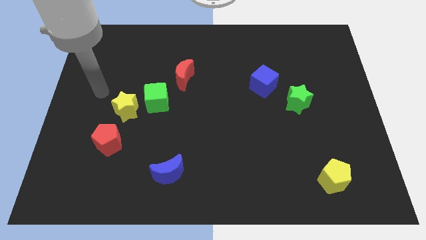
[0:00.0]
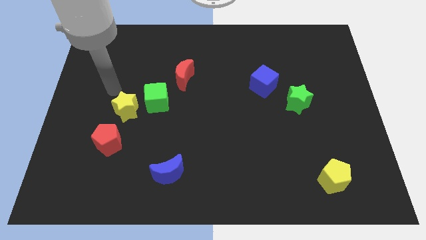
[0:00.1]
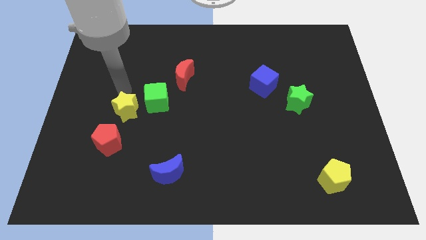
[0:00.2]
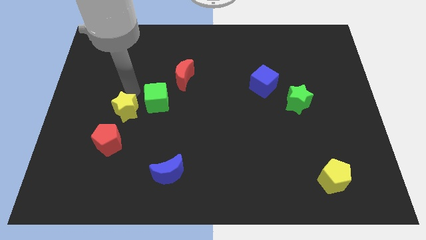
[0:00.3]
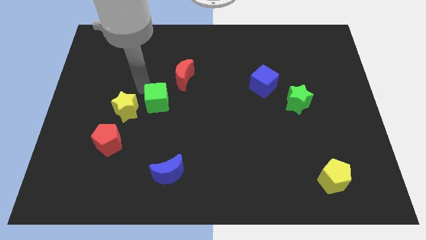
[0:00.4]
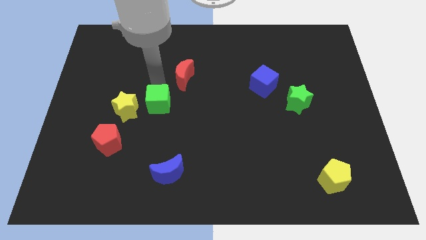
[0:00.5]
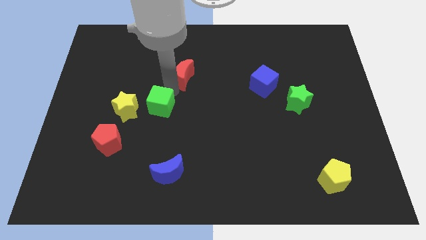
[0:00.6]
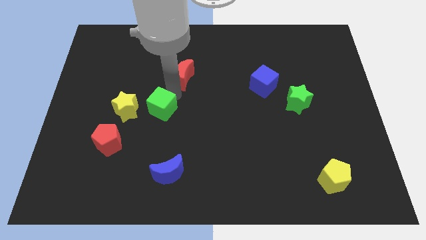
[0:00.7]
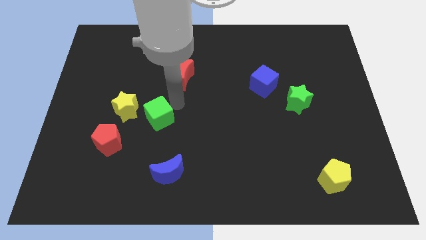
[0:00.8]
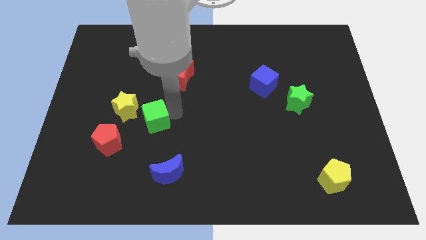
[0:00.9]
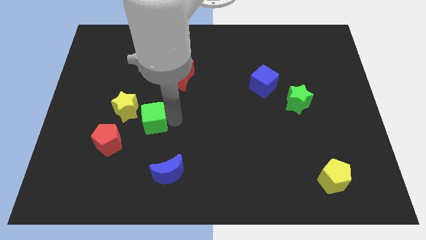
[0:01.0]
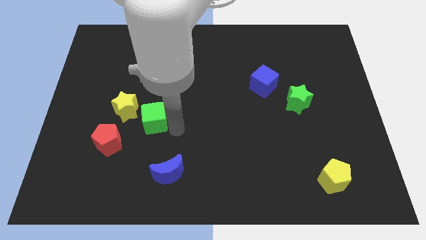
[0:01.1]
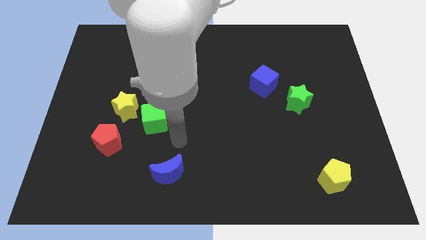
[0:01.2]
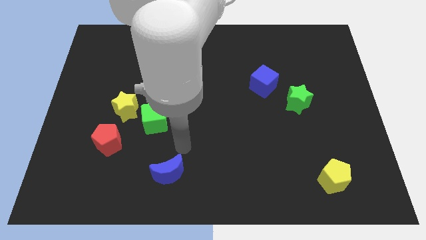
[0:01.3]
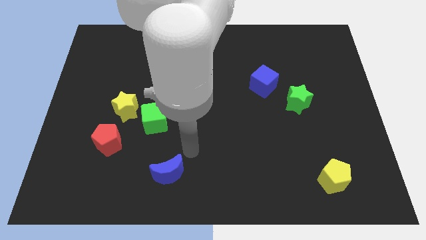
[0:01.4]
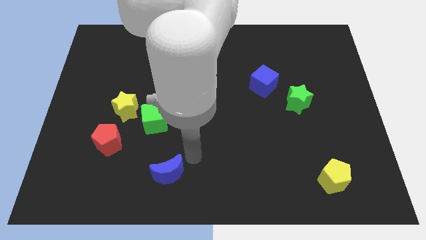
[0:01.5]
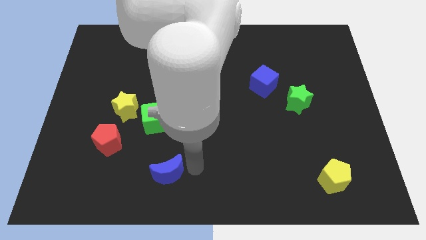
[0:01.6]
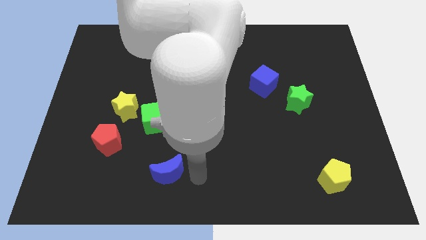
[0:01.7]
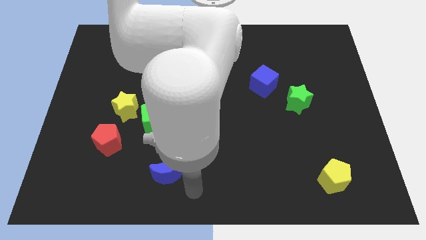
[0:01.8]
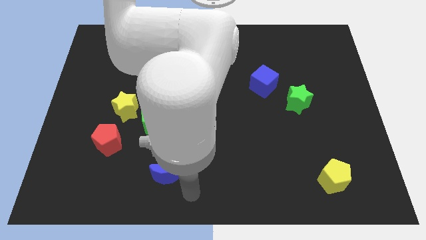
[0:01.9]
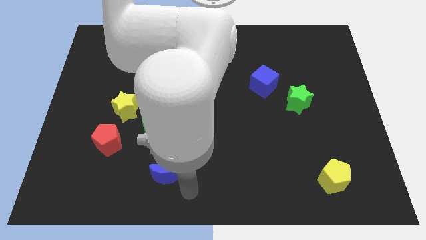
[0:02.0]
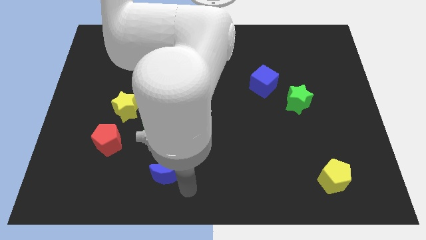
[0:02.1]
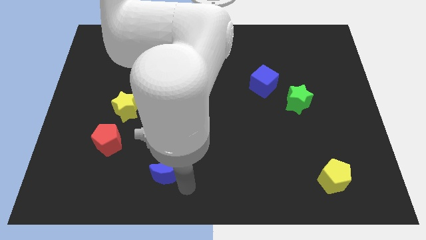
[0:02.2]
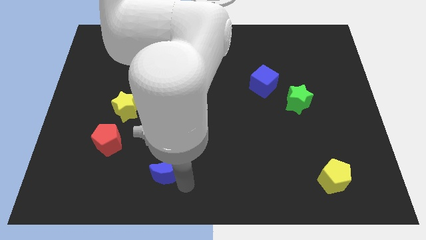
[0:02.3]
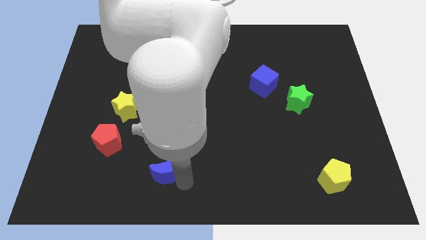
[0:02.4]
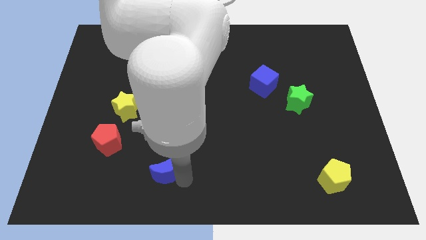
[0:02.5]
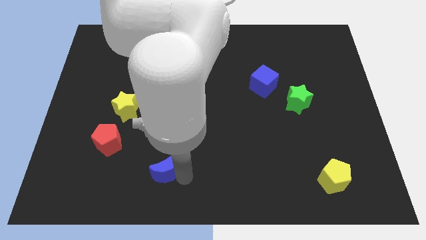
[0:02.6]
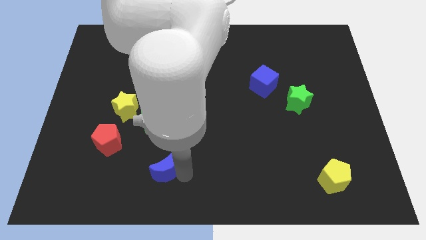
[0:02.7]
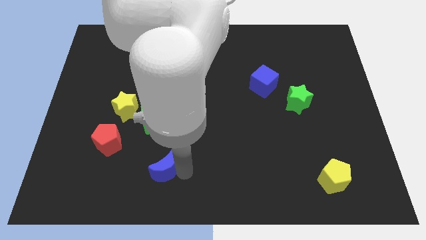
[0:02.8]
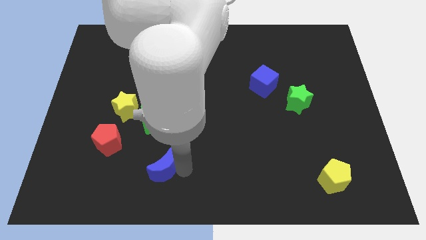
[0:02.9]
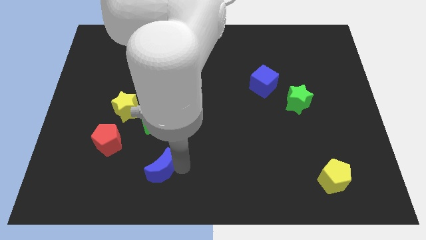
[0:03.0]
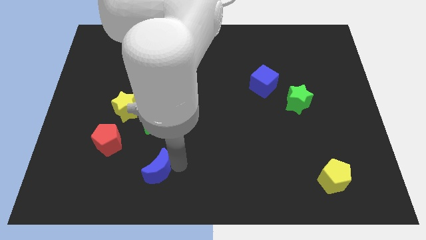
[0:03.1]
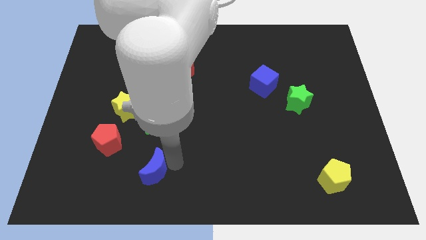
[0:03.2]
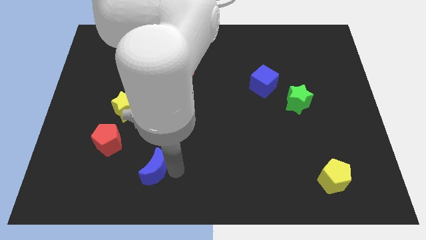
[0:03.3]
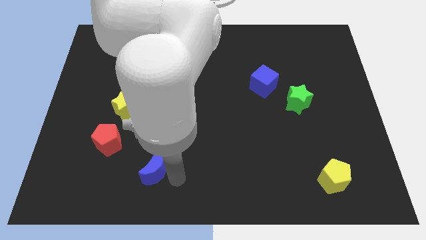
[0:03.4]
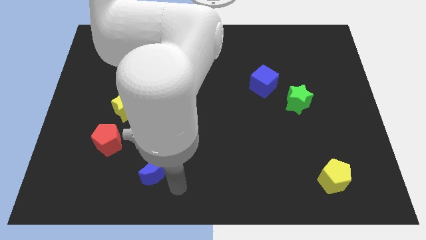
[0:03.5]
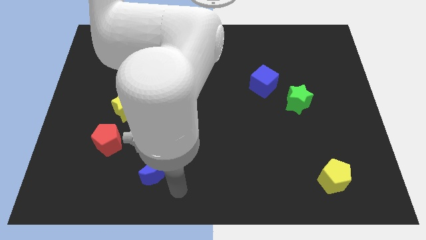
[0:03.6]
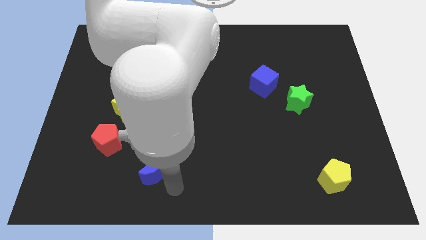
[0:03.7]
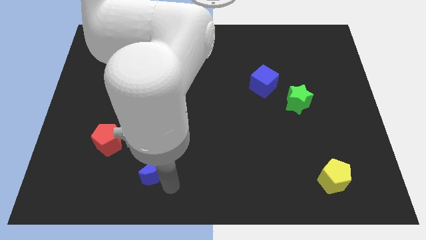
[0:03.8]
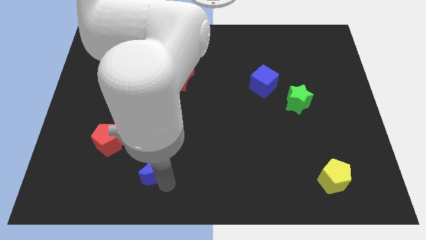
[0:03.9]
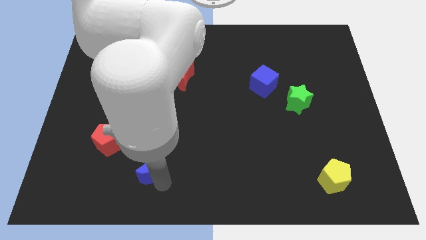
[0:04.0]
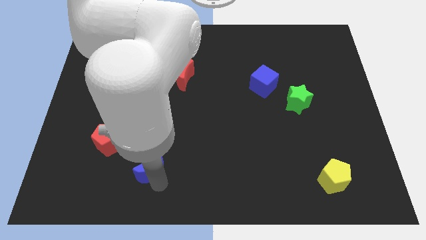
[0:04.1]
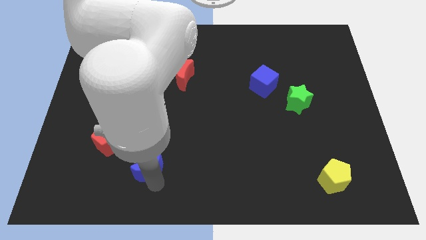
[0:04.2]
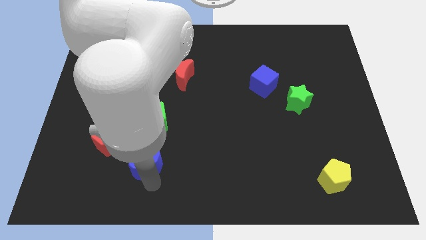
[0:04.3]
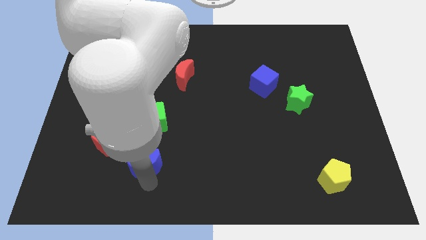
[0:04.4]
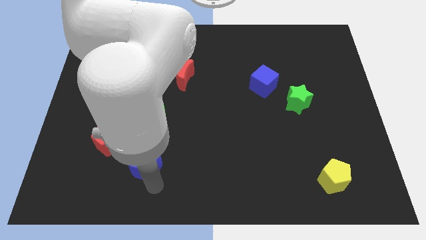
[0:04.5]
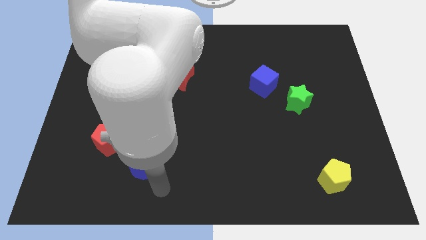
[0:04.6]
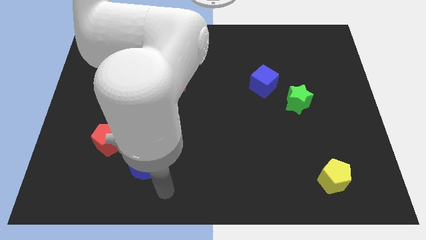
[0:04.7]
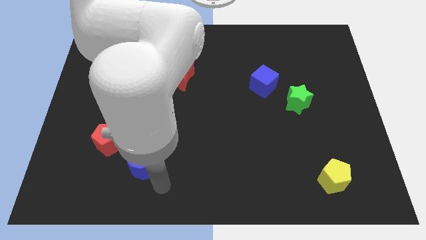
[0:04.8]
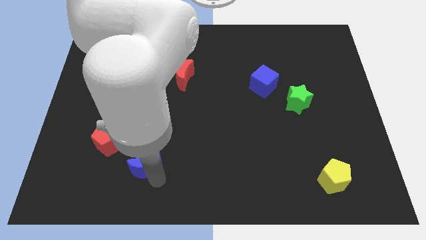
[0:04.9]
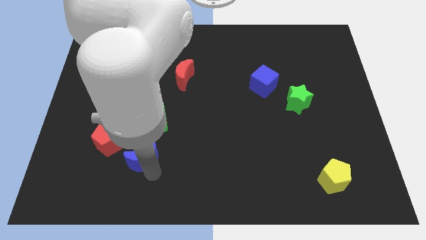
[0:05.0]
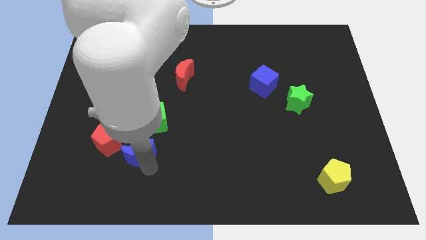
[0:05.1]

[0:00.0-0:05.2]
move the blue moon up and left a bit

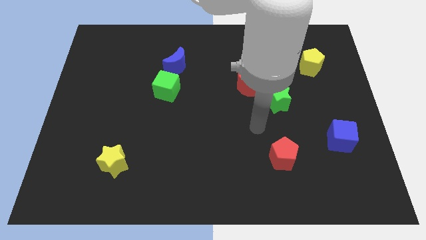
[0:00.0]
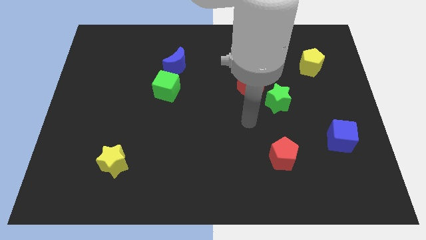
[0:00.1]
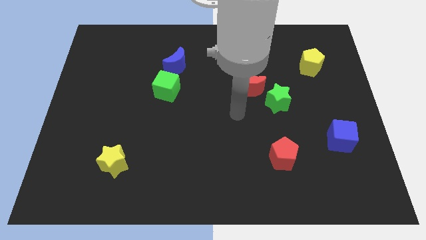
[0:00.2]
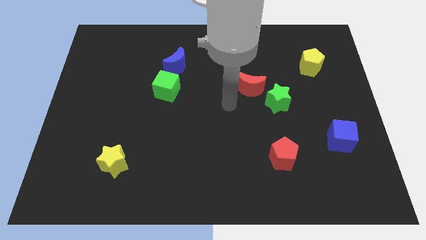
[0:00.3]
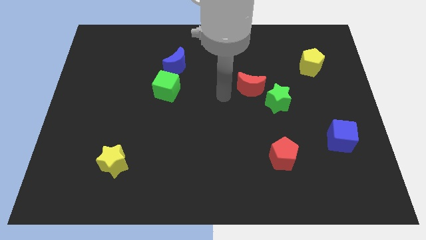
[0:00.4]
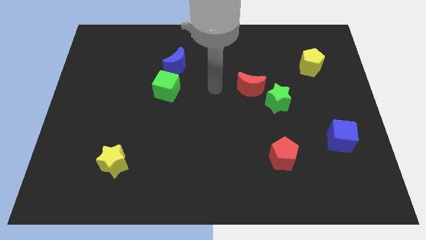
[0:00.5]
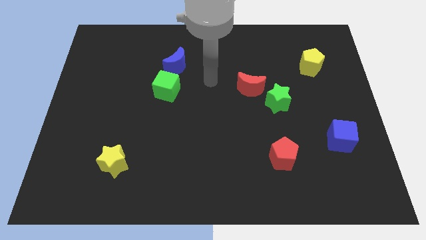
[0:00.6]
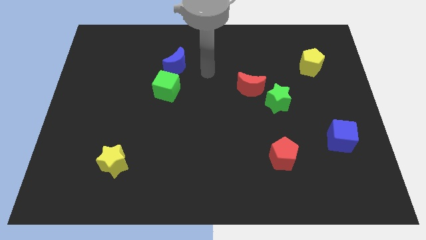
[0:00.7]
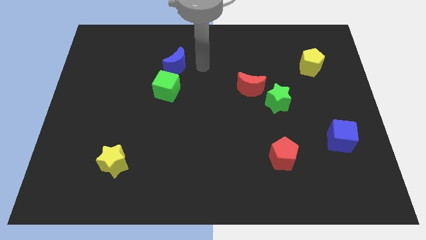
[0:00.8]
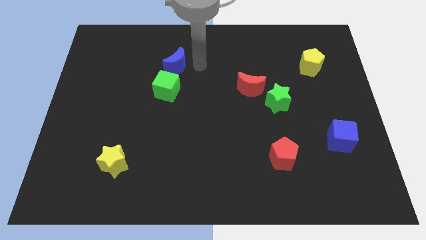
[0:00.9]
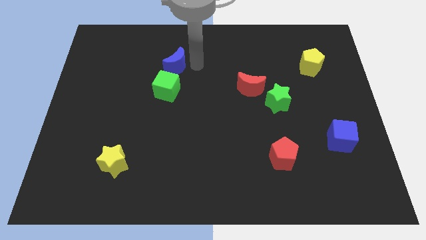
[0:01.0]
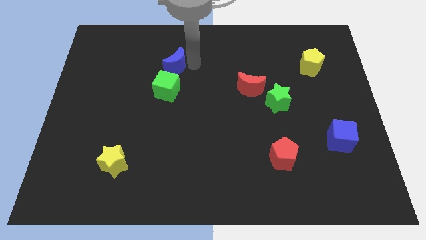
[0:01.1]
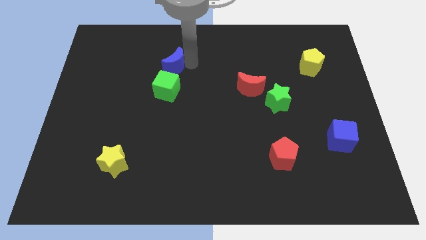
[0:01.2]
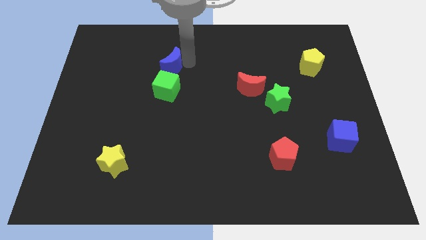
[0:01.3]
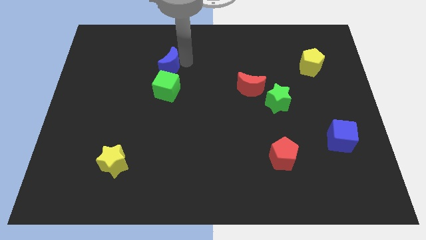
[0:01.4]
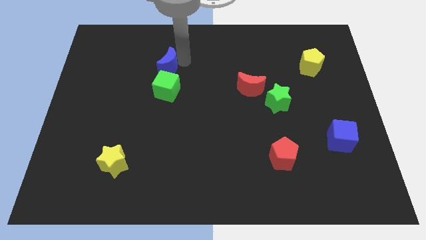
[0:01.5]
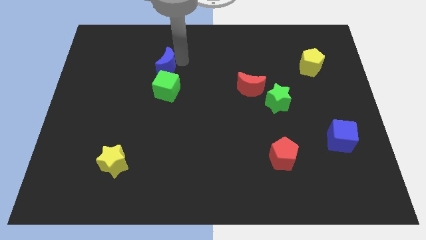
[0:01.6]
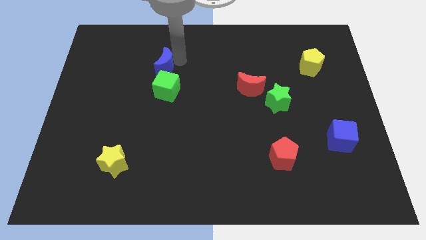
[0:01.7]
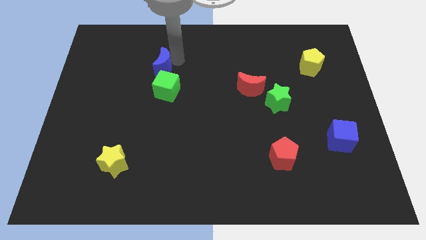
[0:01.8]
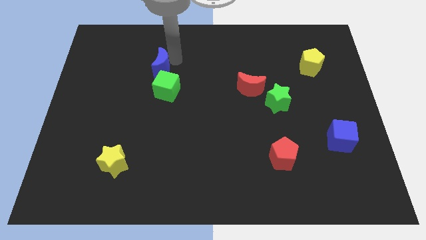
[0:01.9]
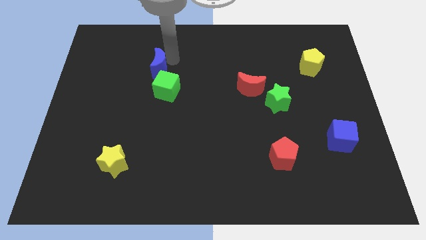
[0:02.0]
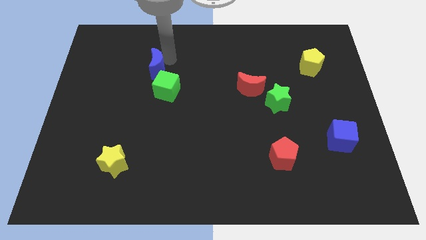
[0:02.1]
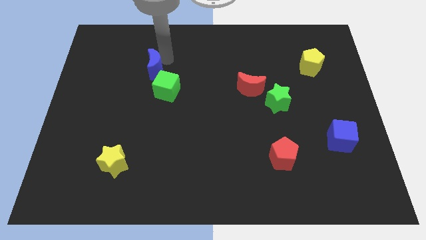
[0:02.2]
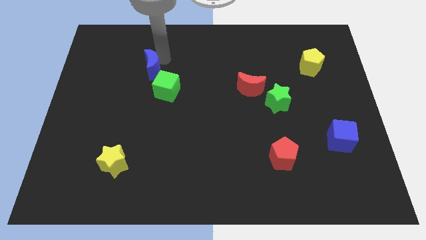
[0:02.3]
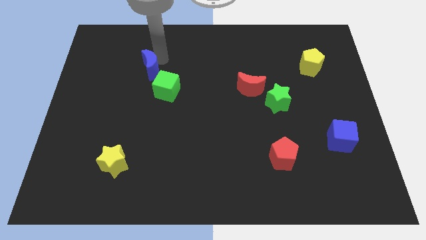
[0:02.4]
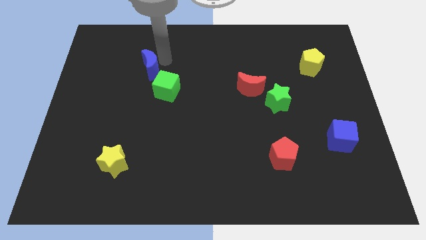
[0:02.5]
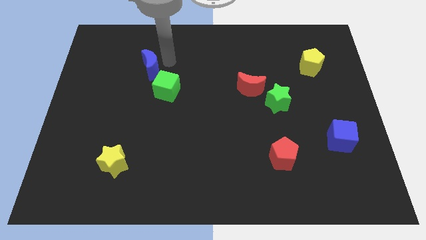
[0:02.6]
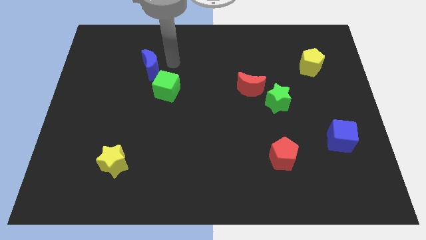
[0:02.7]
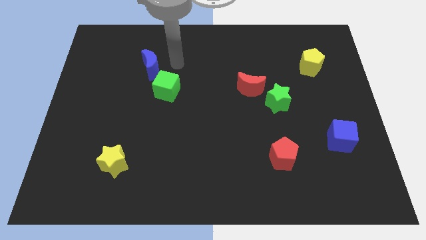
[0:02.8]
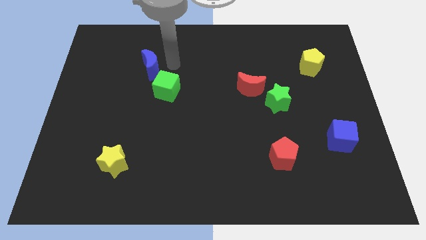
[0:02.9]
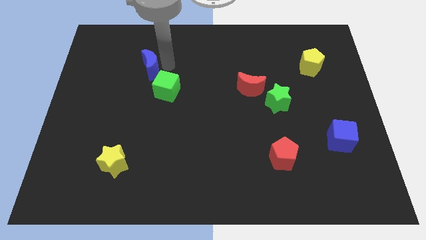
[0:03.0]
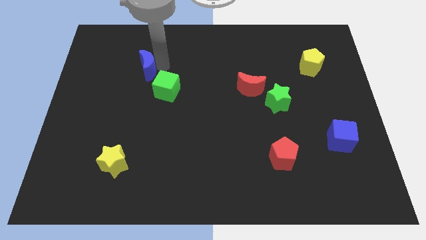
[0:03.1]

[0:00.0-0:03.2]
move the blue moon slightly left

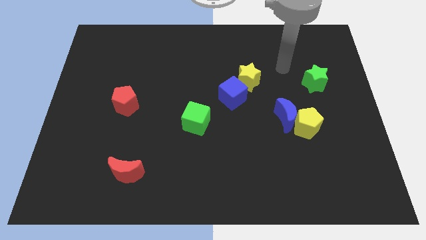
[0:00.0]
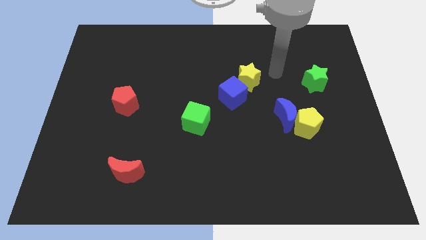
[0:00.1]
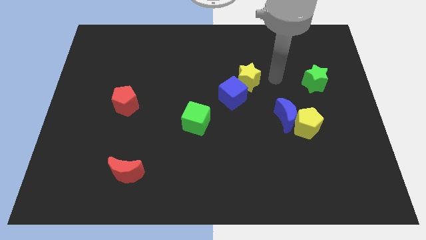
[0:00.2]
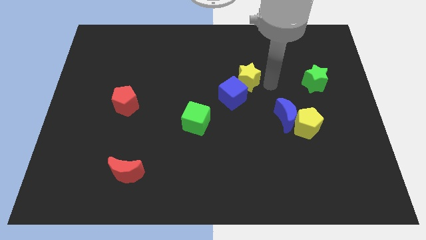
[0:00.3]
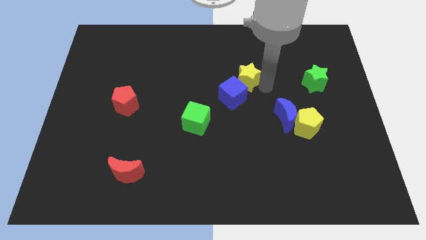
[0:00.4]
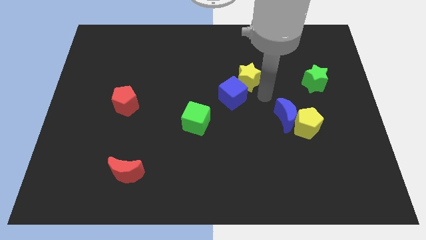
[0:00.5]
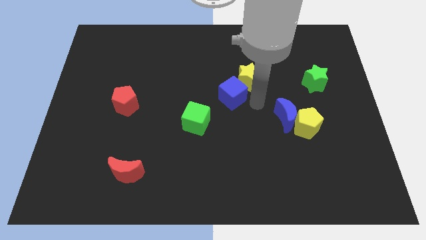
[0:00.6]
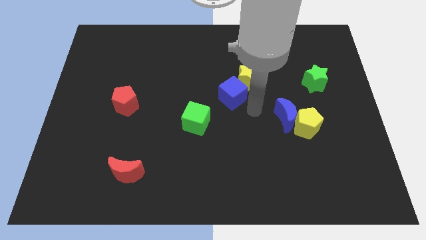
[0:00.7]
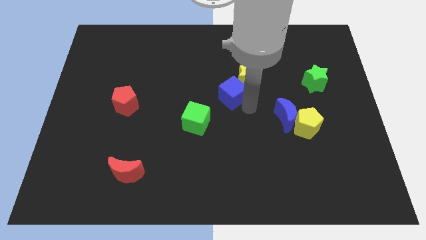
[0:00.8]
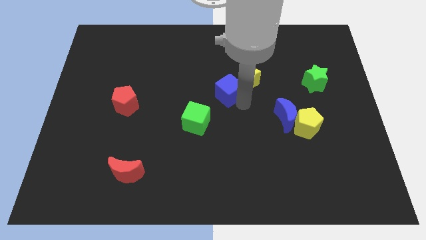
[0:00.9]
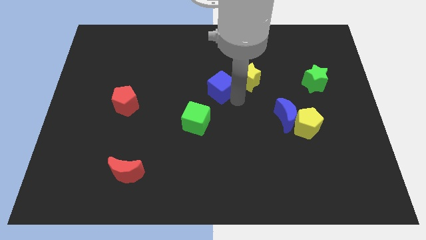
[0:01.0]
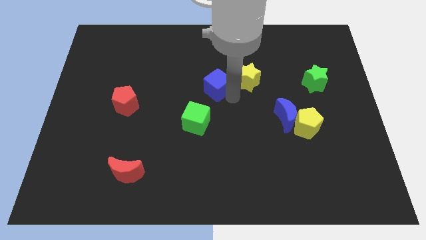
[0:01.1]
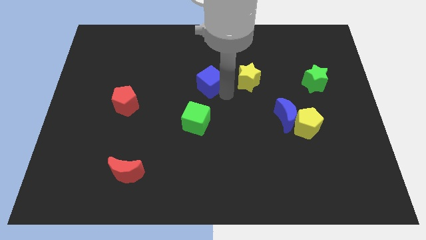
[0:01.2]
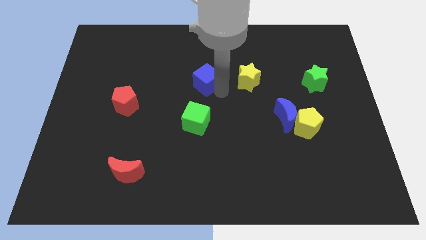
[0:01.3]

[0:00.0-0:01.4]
push the blue cube a little up and left diagonally
